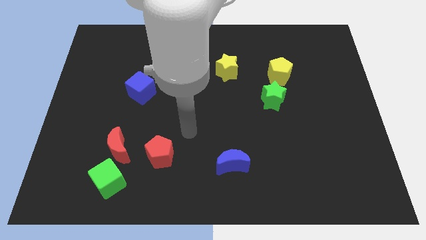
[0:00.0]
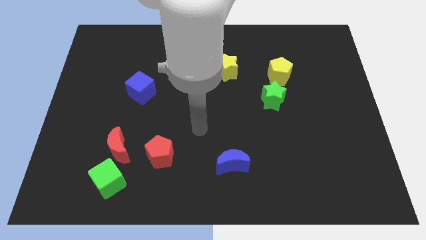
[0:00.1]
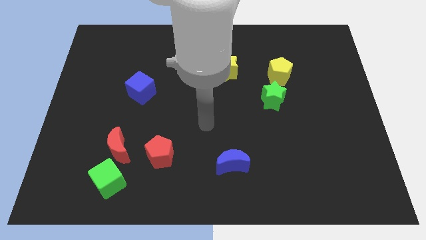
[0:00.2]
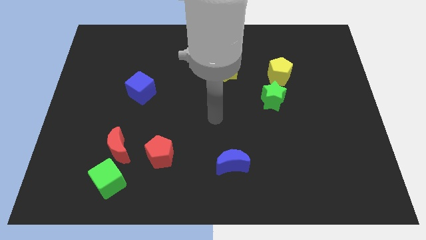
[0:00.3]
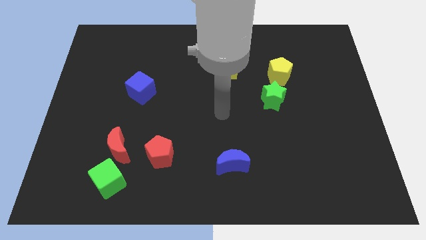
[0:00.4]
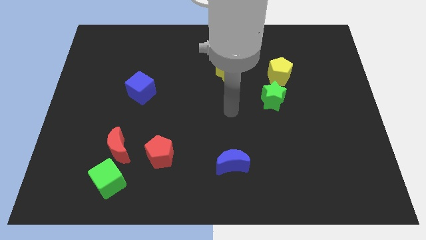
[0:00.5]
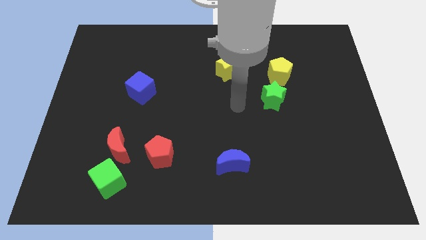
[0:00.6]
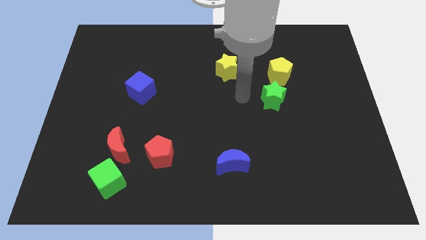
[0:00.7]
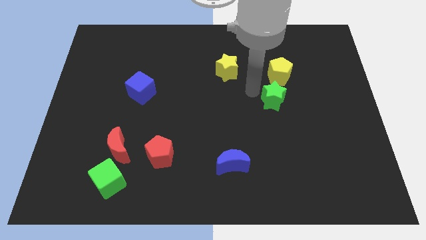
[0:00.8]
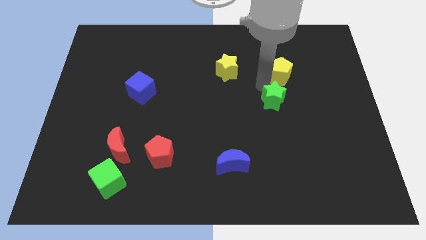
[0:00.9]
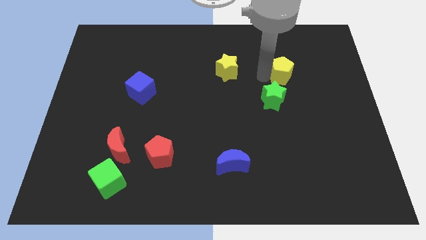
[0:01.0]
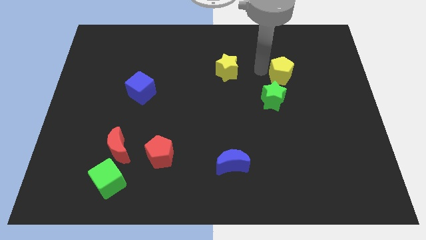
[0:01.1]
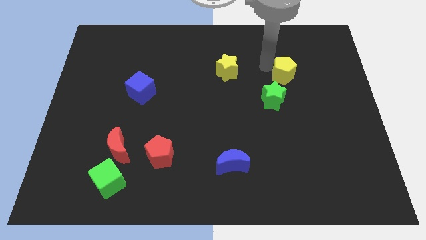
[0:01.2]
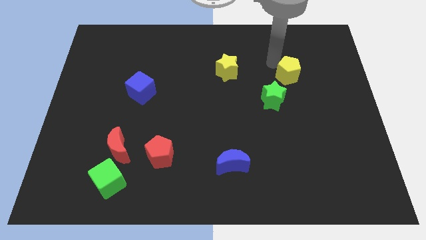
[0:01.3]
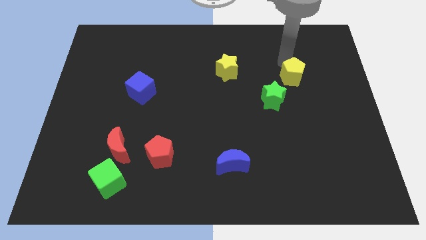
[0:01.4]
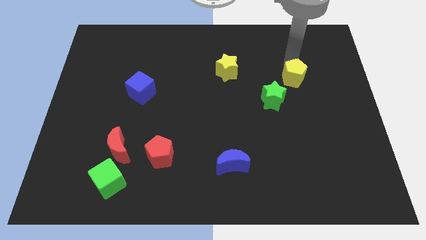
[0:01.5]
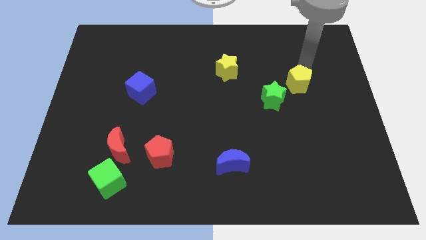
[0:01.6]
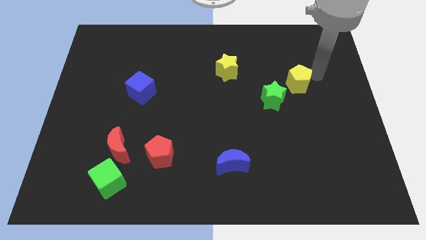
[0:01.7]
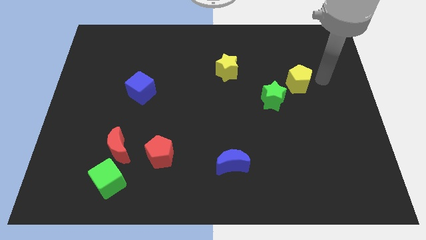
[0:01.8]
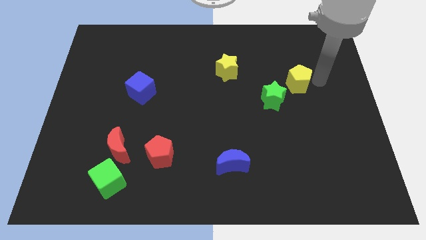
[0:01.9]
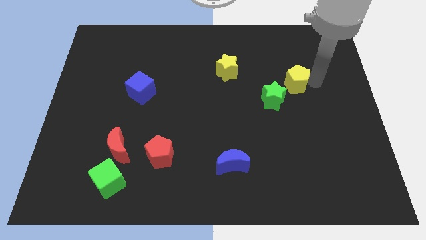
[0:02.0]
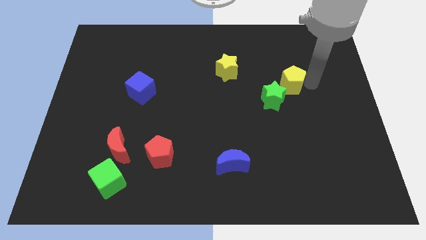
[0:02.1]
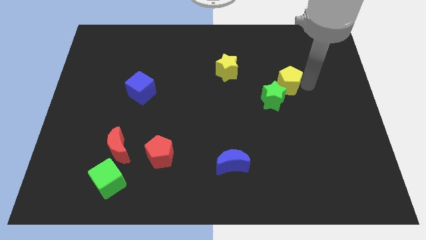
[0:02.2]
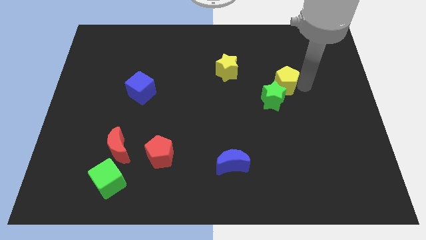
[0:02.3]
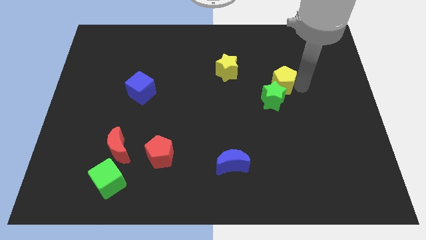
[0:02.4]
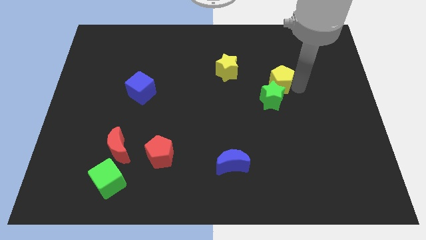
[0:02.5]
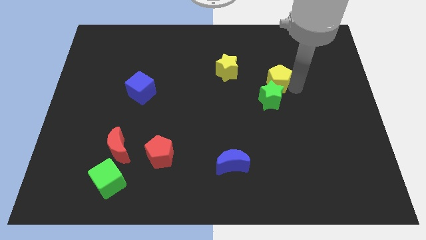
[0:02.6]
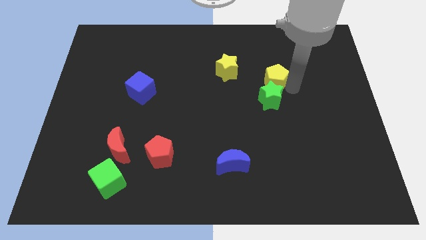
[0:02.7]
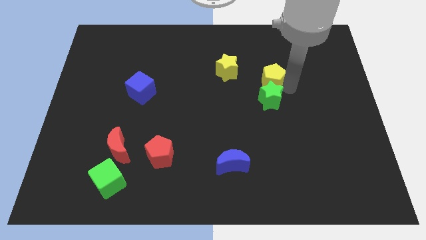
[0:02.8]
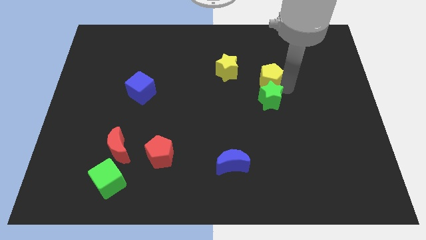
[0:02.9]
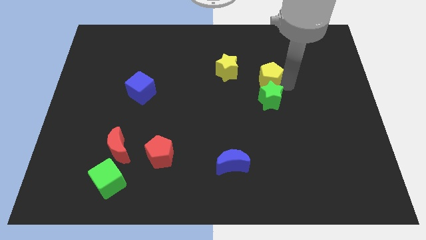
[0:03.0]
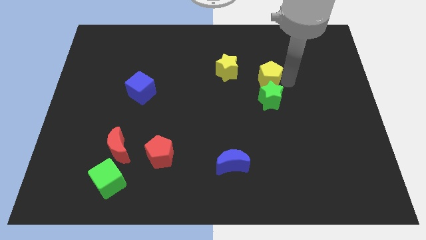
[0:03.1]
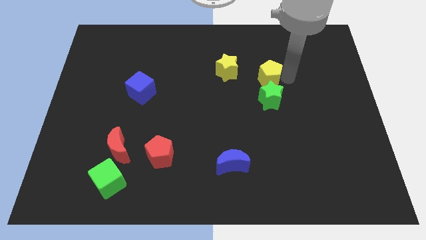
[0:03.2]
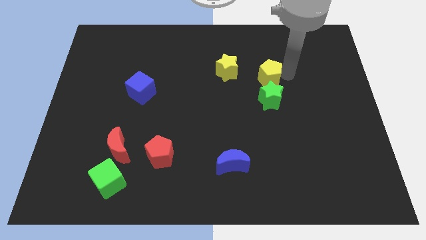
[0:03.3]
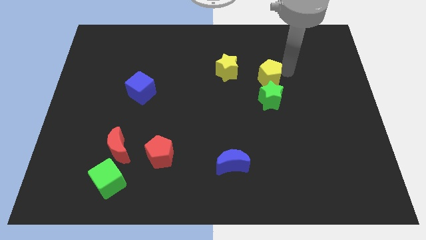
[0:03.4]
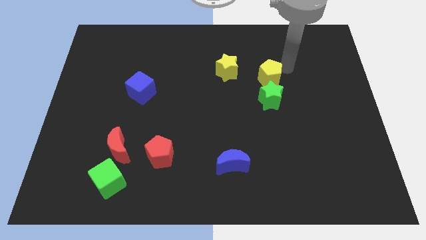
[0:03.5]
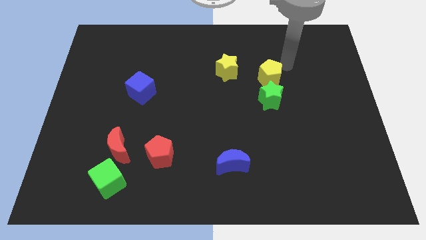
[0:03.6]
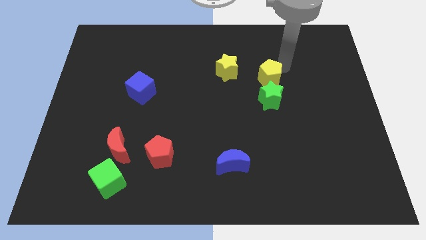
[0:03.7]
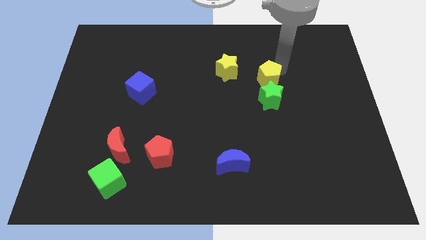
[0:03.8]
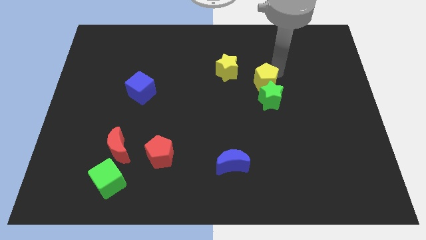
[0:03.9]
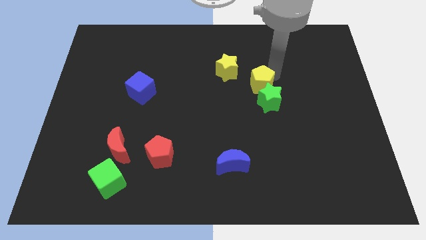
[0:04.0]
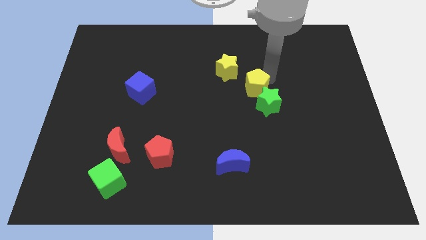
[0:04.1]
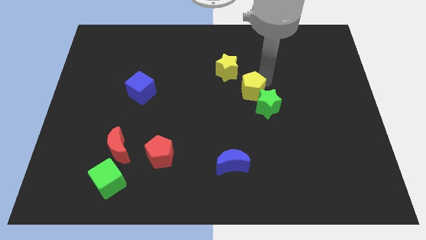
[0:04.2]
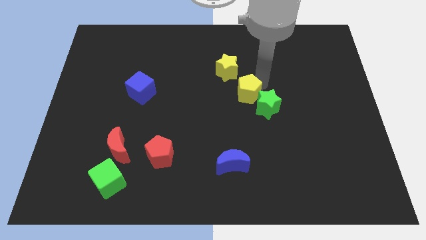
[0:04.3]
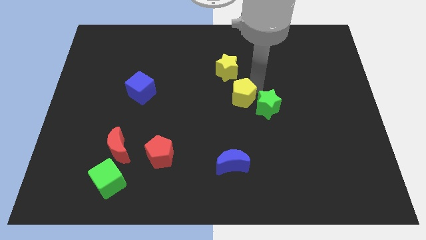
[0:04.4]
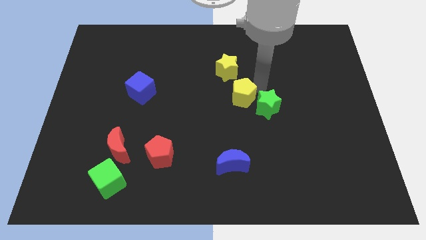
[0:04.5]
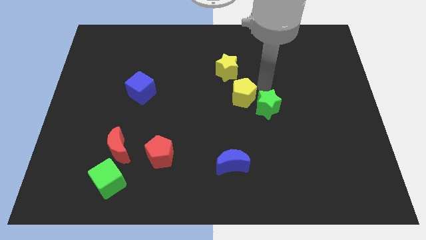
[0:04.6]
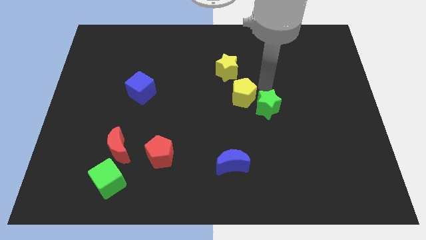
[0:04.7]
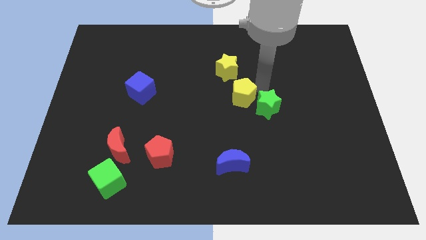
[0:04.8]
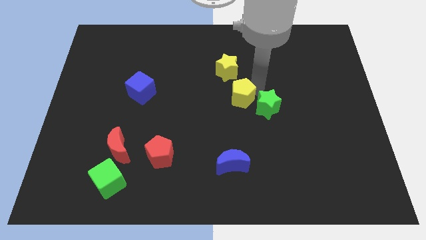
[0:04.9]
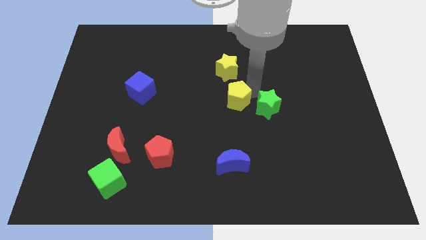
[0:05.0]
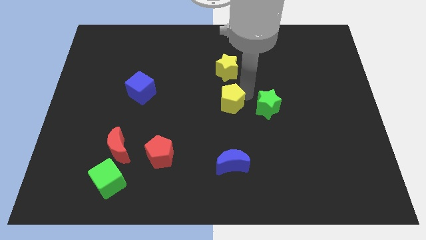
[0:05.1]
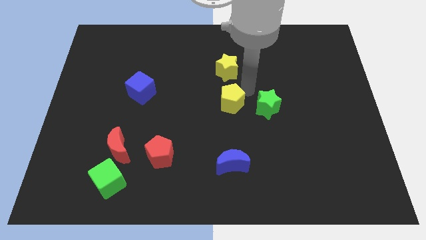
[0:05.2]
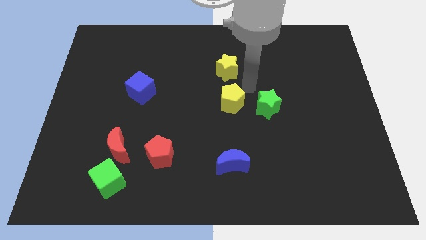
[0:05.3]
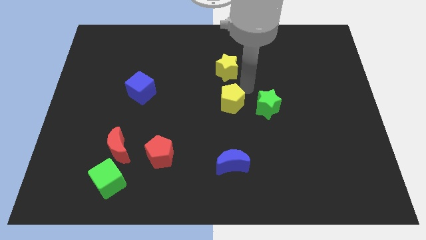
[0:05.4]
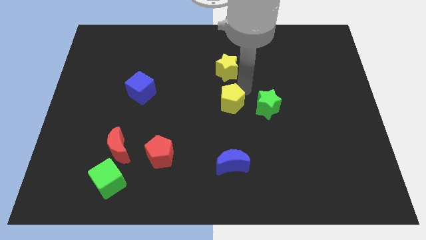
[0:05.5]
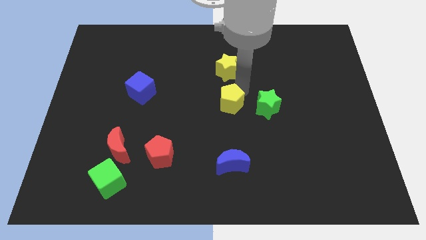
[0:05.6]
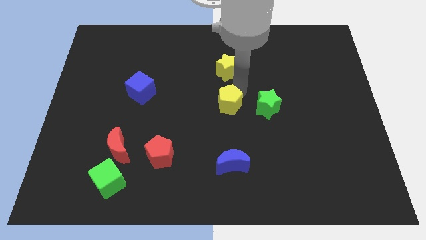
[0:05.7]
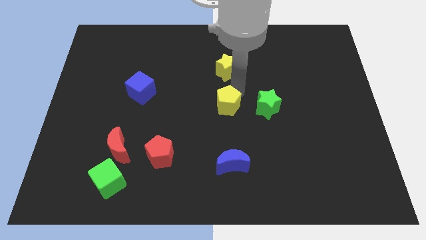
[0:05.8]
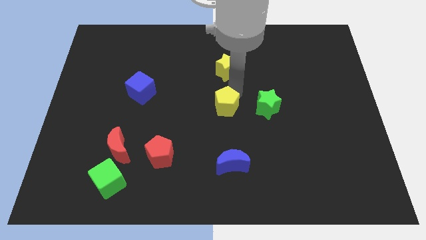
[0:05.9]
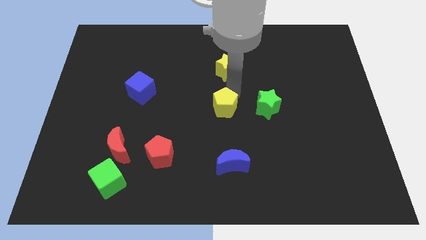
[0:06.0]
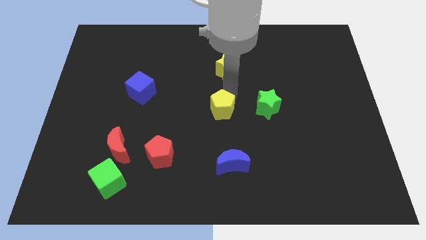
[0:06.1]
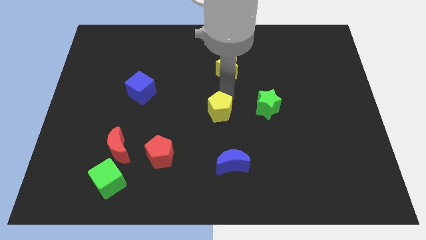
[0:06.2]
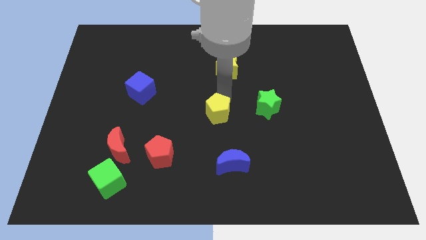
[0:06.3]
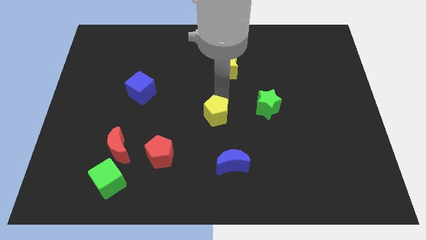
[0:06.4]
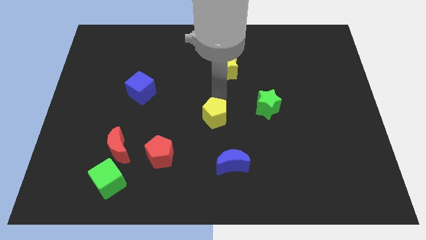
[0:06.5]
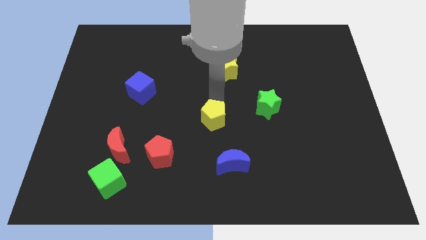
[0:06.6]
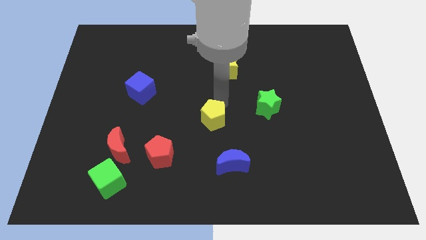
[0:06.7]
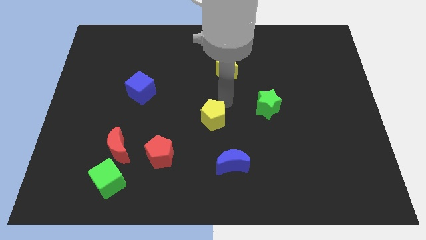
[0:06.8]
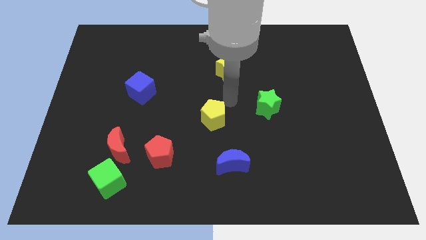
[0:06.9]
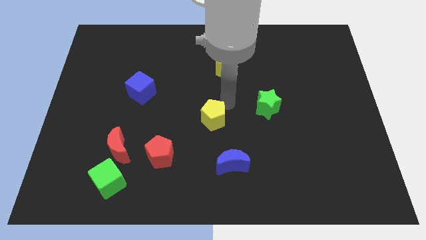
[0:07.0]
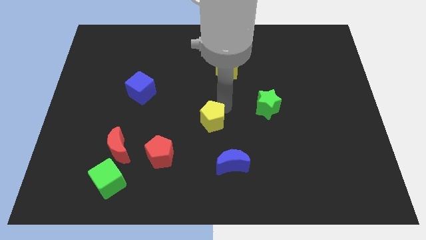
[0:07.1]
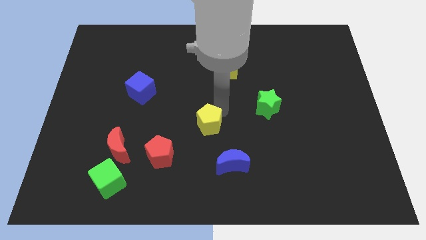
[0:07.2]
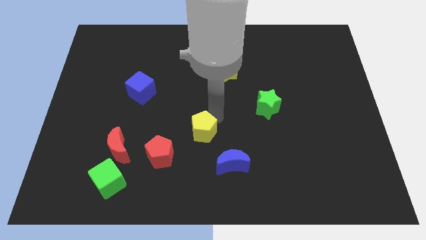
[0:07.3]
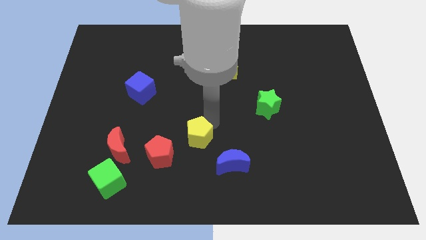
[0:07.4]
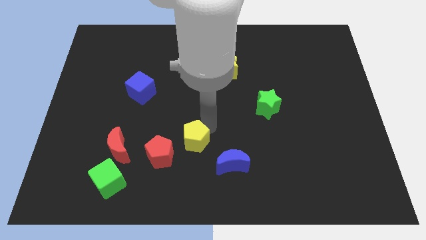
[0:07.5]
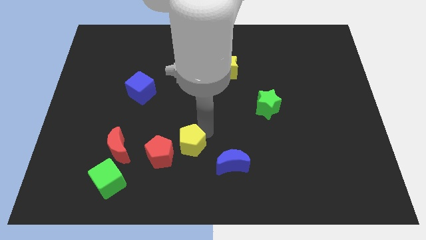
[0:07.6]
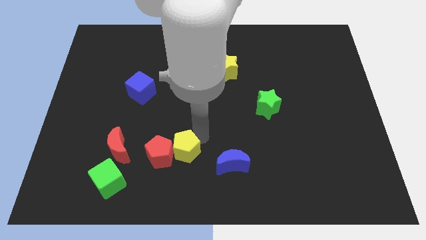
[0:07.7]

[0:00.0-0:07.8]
put the yellow pentagon towards the red pentagon
